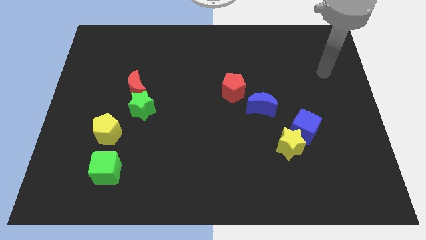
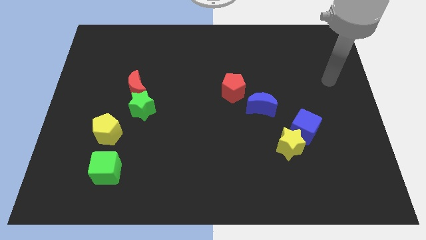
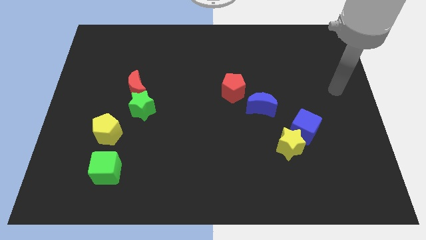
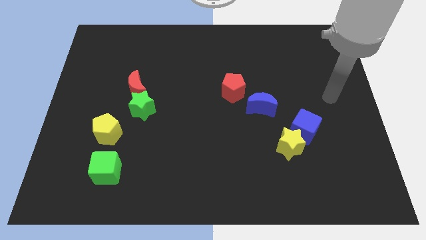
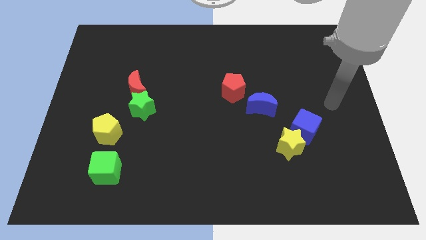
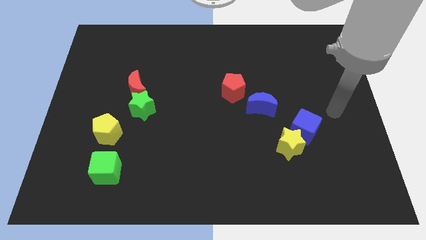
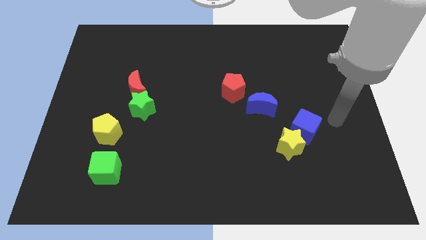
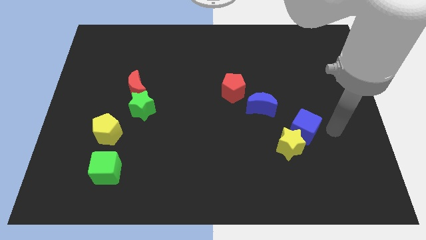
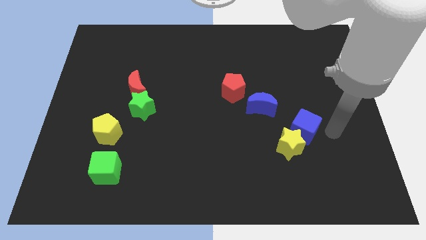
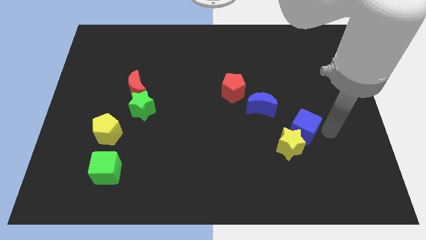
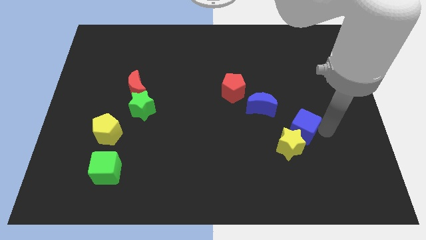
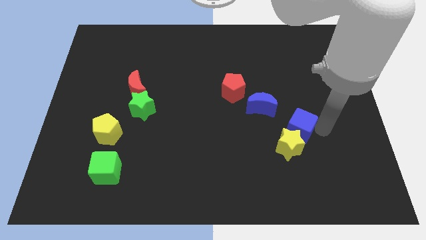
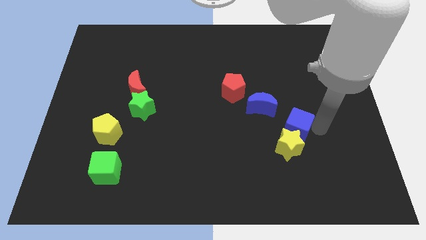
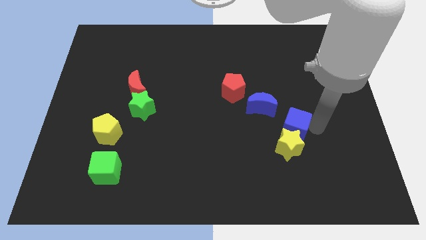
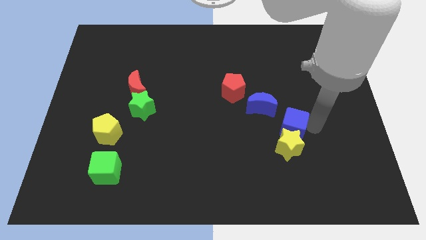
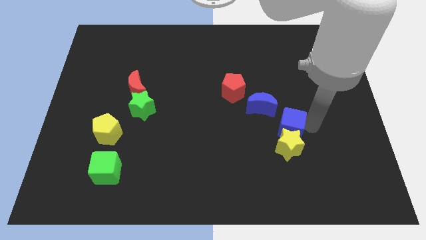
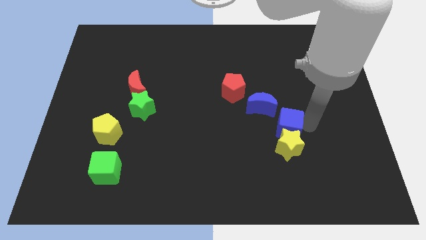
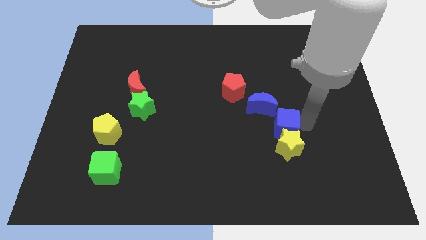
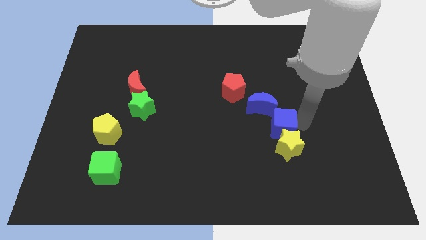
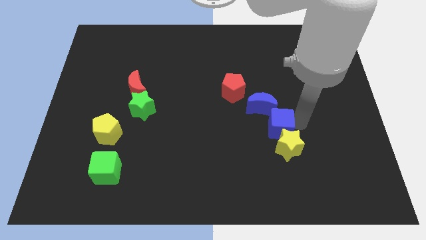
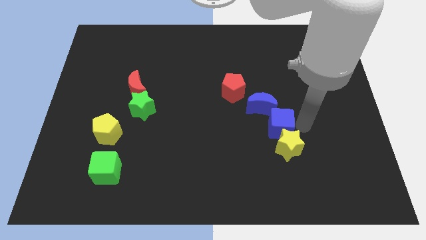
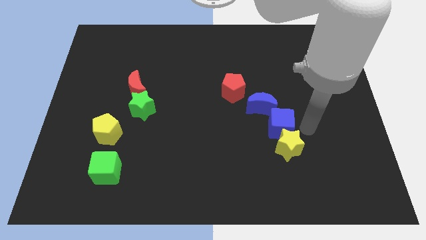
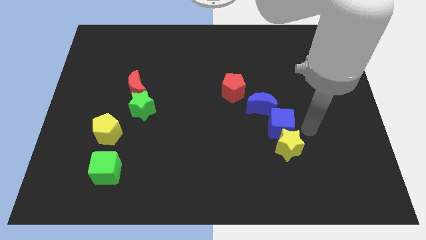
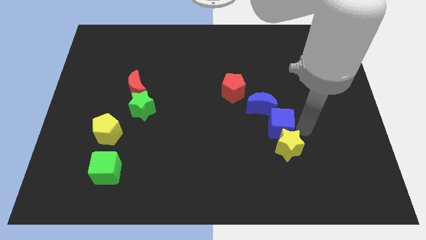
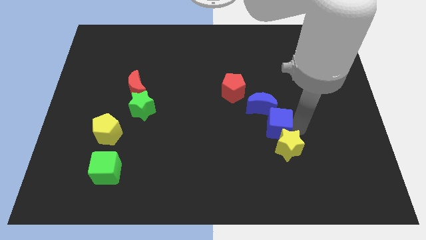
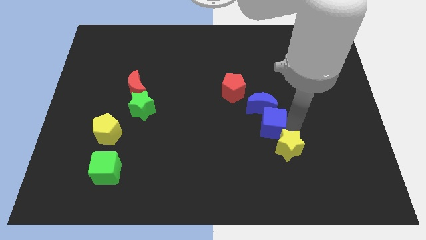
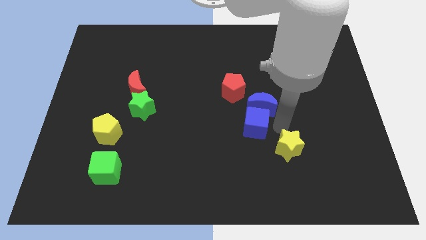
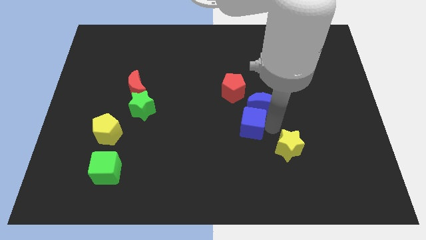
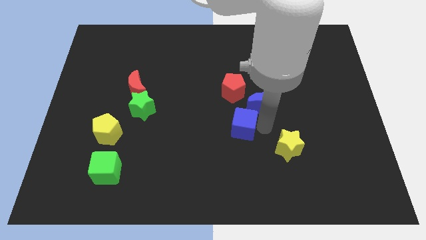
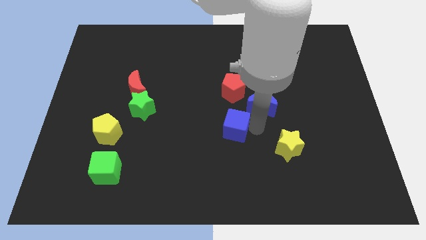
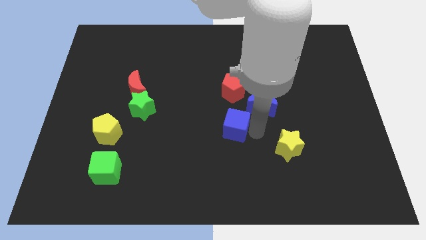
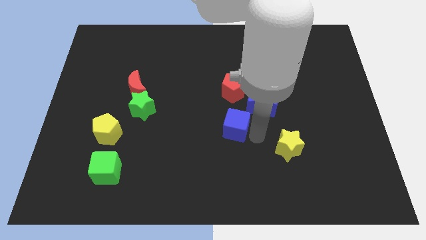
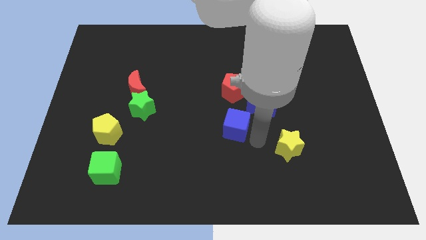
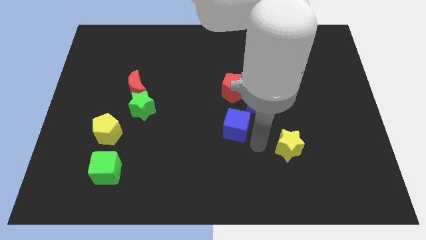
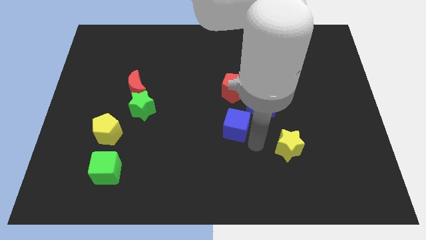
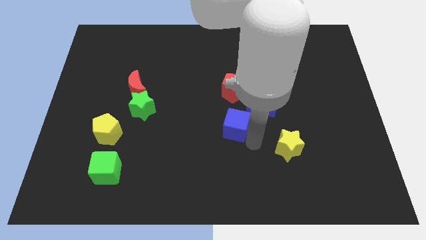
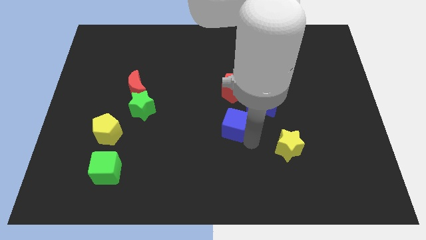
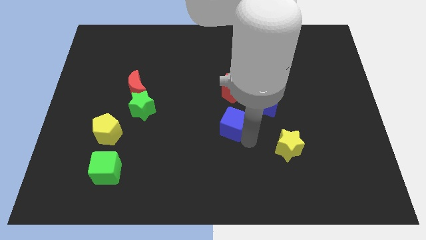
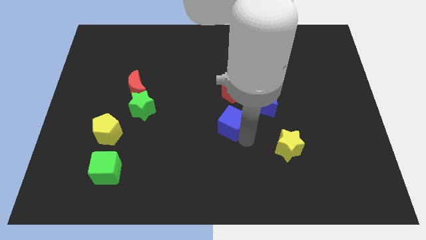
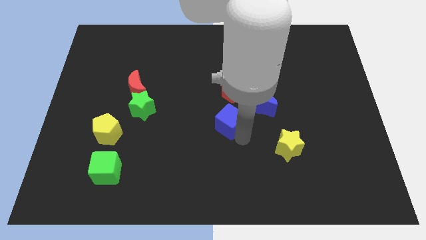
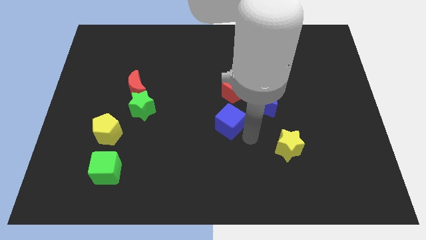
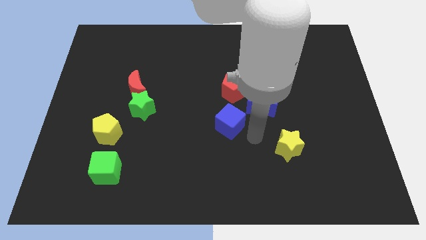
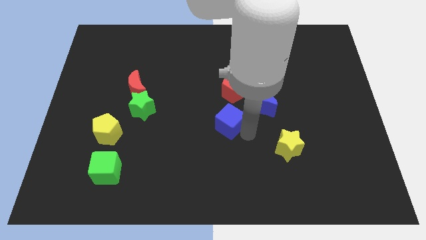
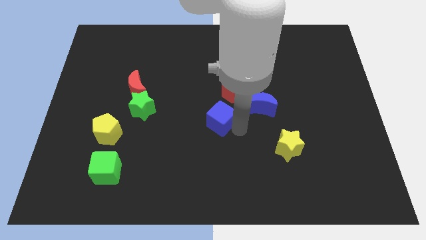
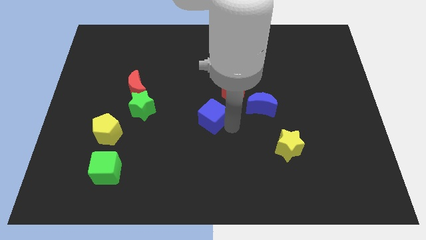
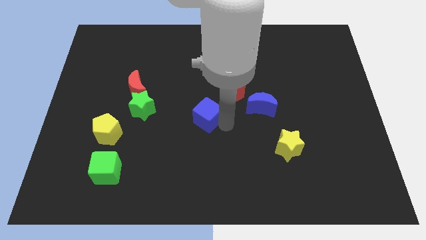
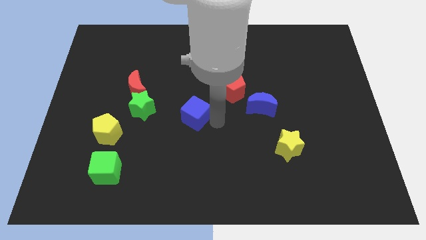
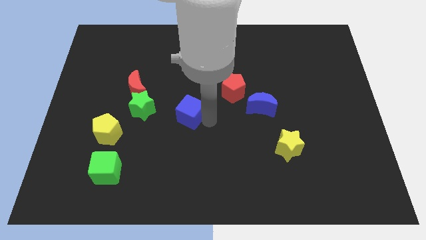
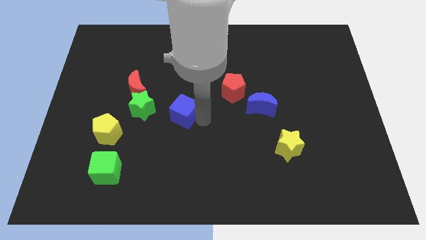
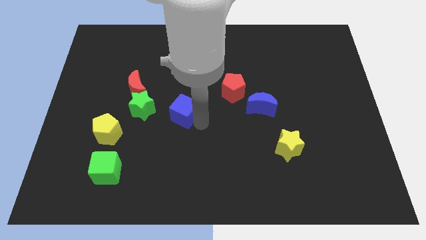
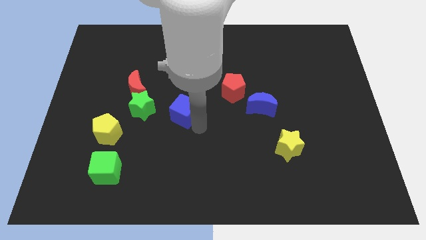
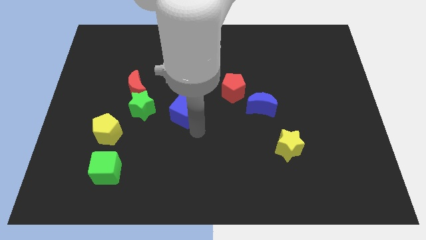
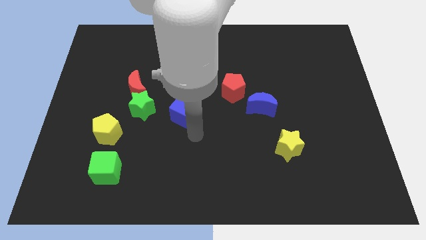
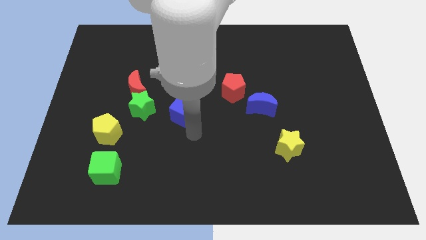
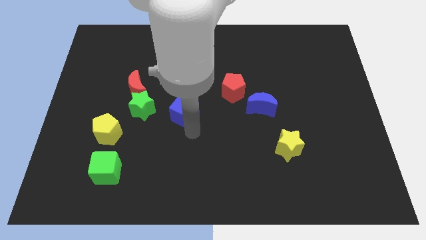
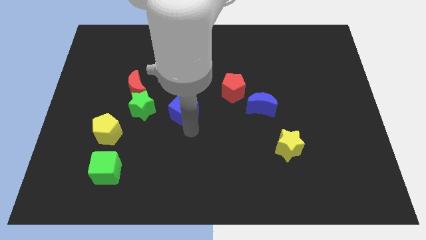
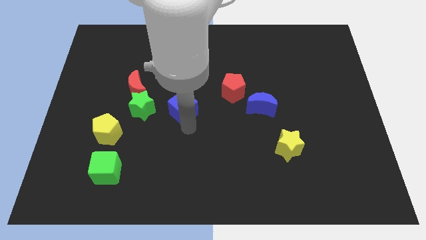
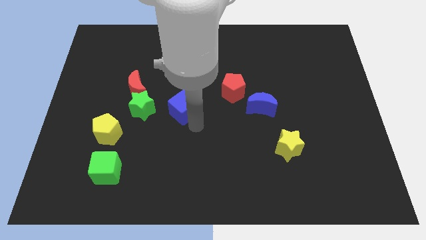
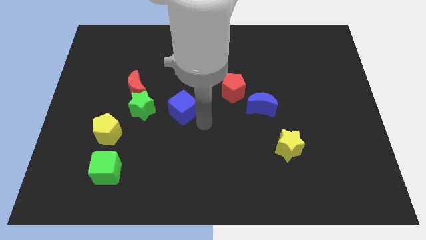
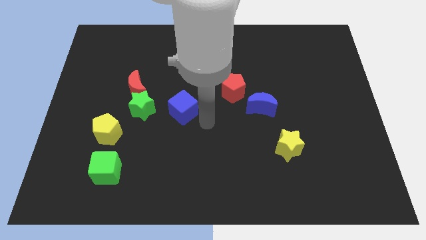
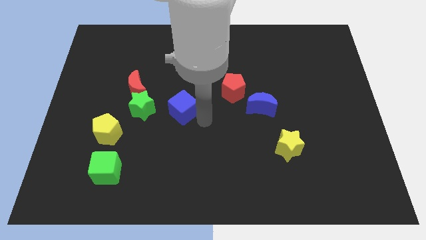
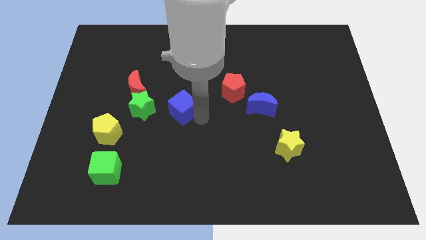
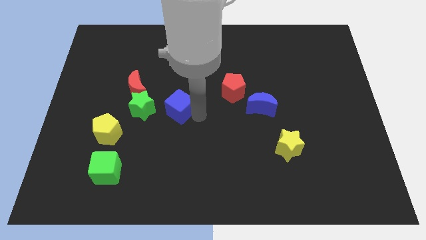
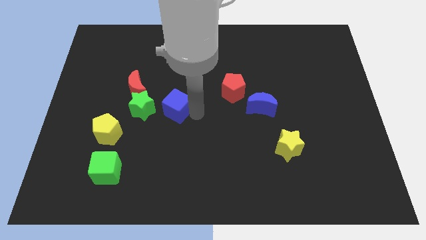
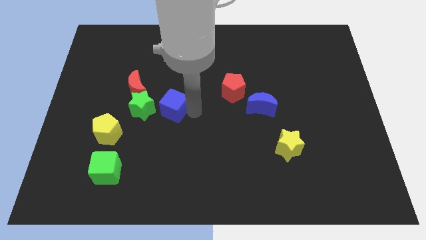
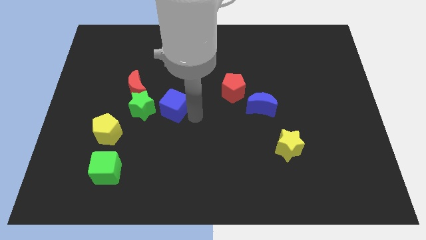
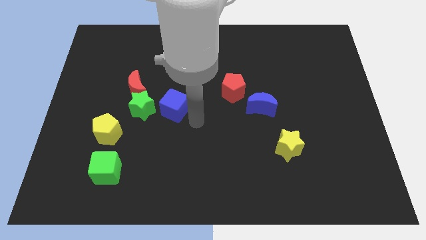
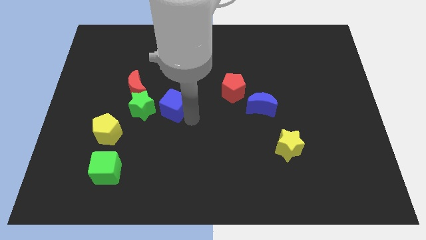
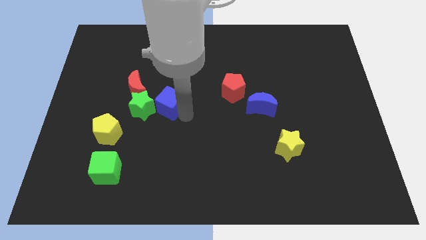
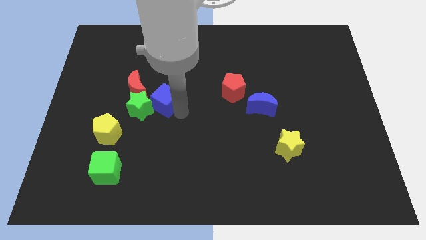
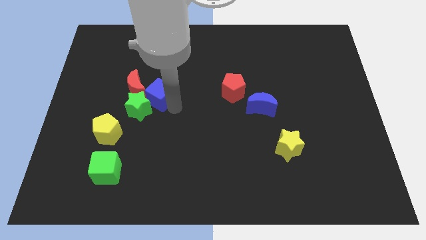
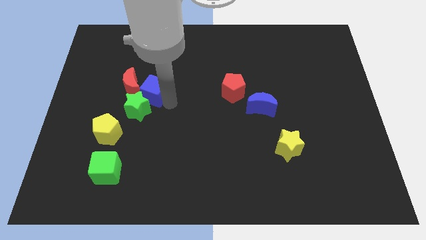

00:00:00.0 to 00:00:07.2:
move the blue cube close to the red moon

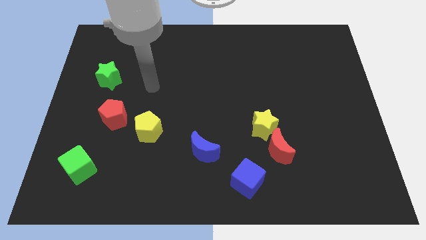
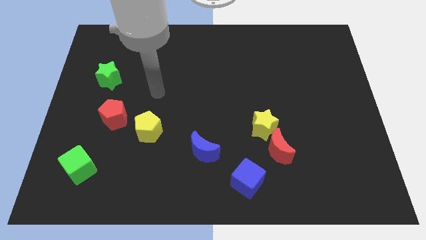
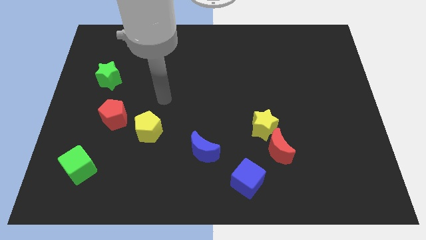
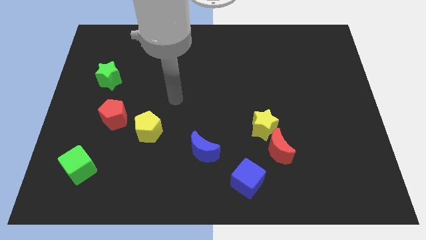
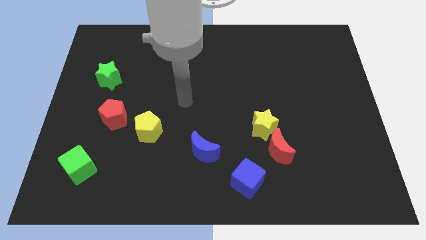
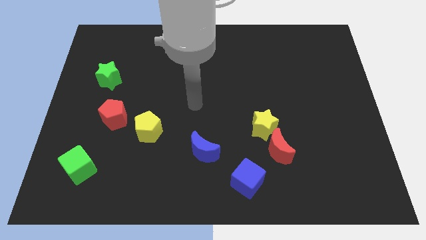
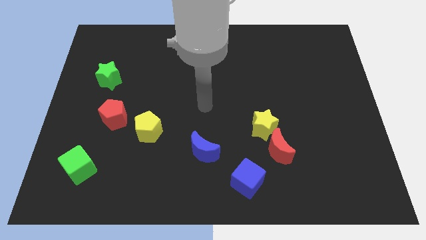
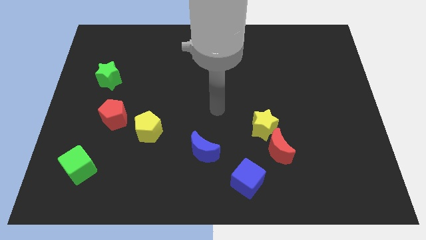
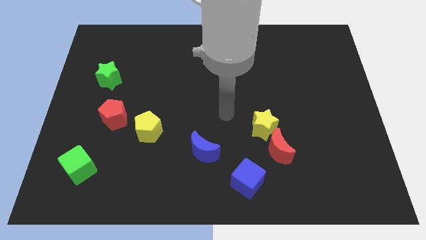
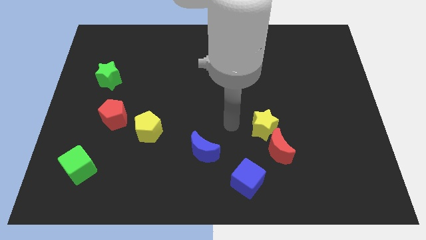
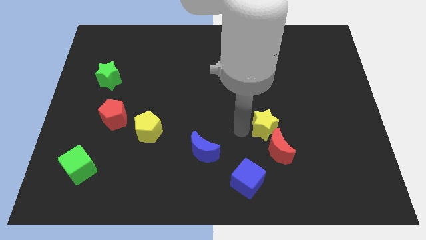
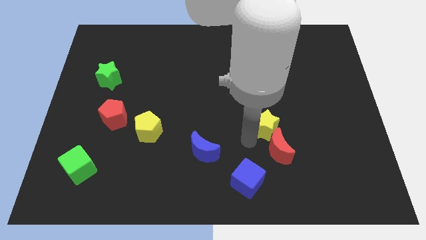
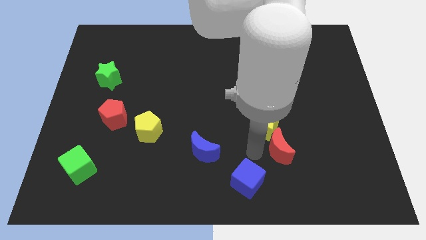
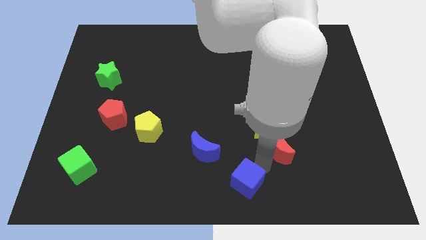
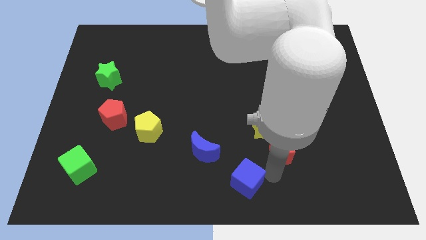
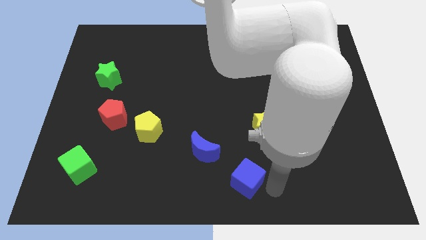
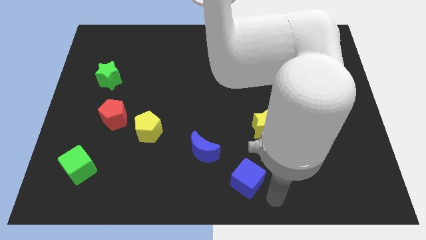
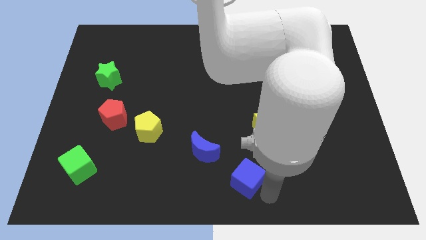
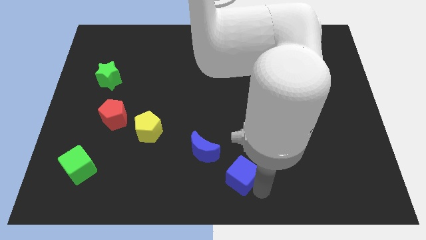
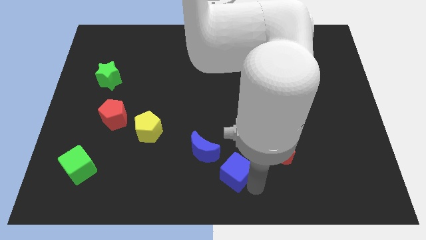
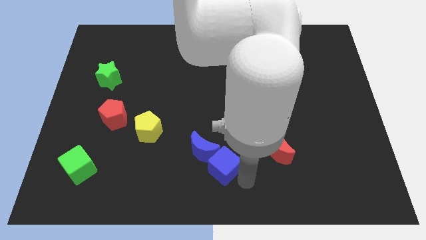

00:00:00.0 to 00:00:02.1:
push the blue cube next to the blue moon
